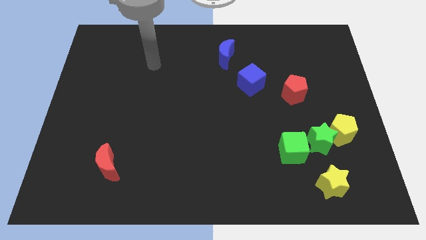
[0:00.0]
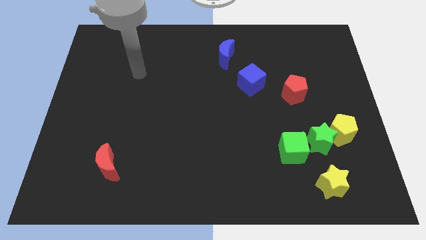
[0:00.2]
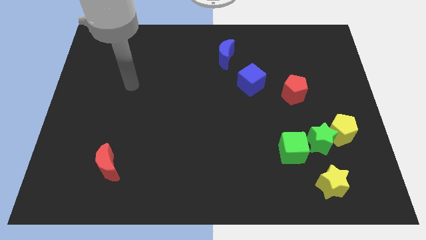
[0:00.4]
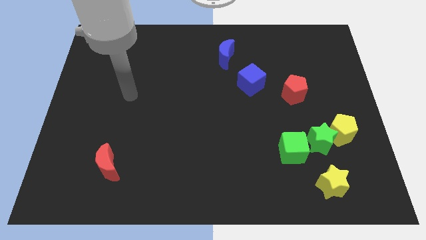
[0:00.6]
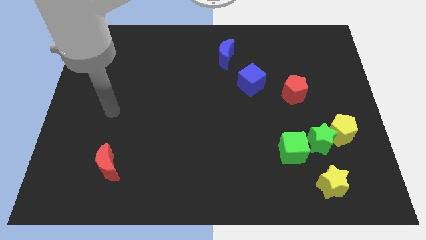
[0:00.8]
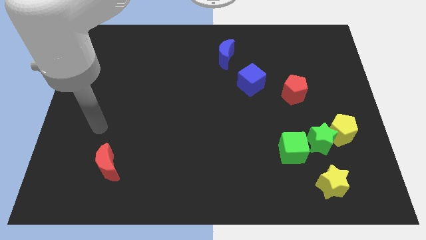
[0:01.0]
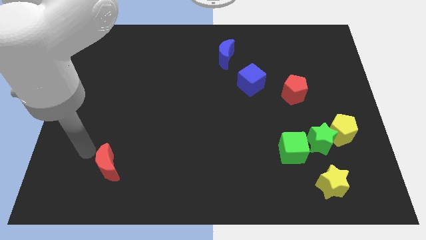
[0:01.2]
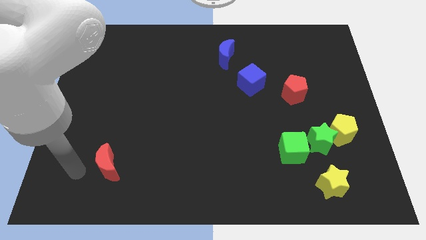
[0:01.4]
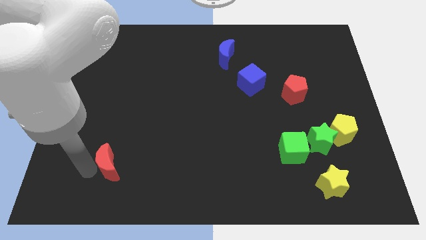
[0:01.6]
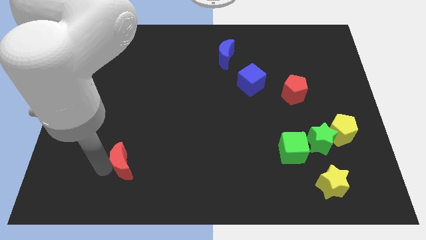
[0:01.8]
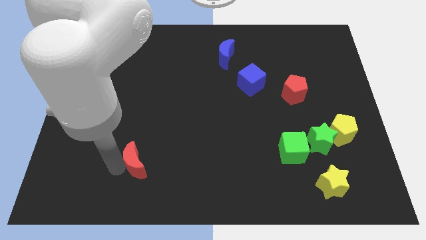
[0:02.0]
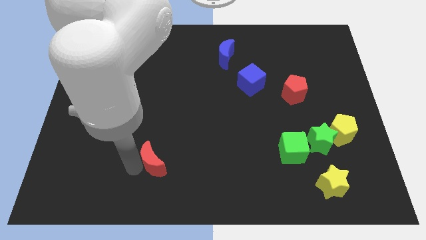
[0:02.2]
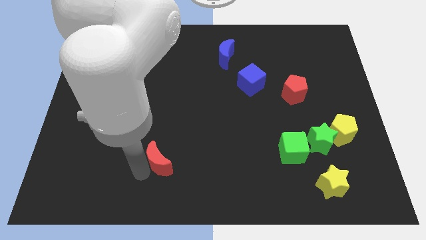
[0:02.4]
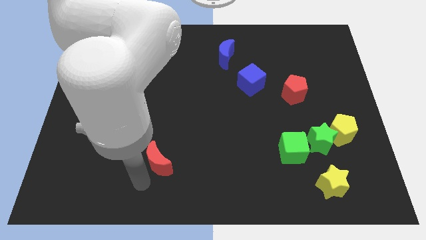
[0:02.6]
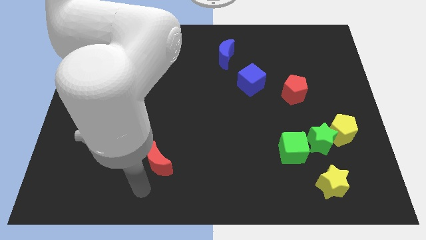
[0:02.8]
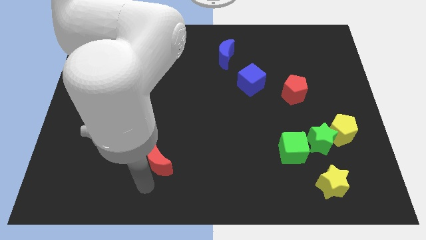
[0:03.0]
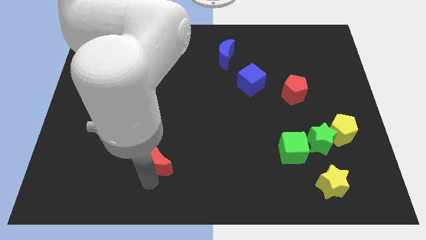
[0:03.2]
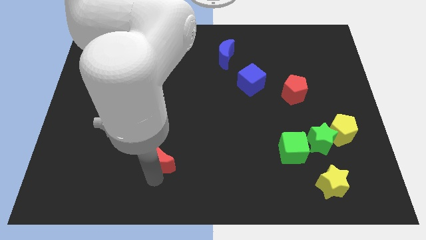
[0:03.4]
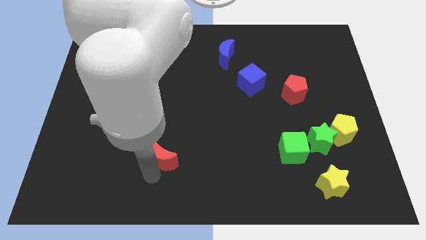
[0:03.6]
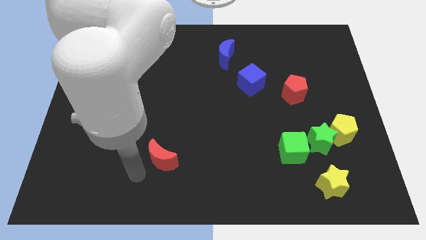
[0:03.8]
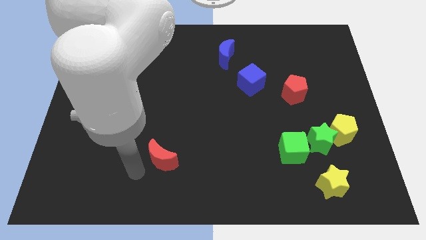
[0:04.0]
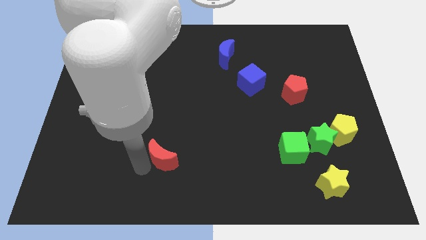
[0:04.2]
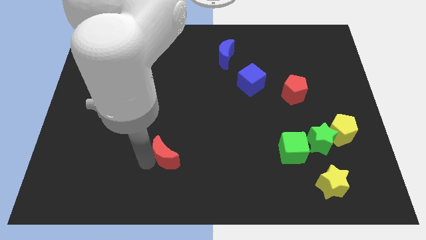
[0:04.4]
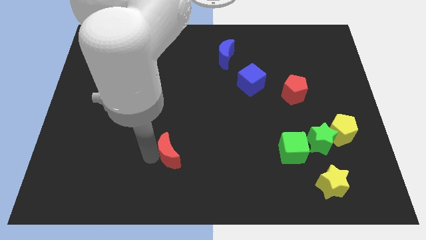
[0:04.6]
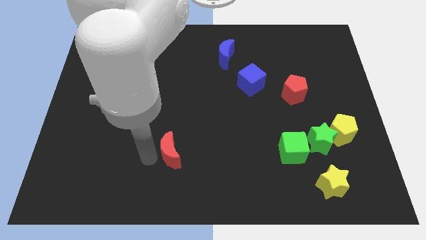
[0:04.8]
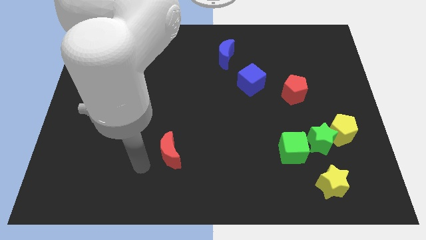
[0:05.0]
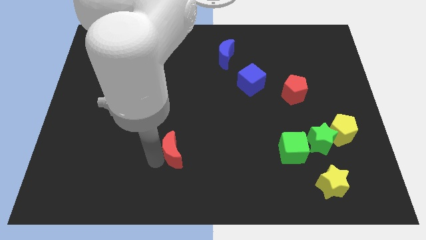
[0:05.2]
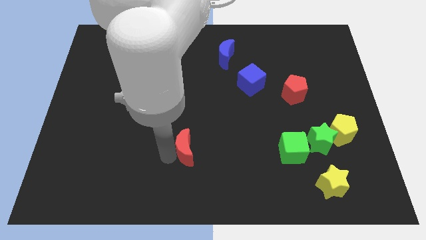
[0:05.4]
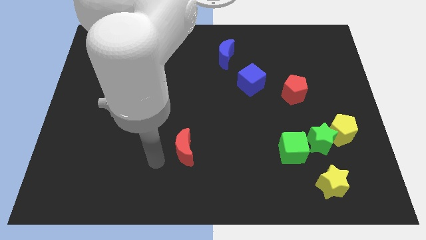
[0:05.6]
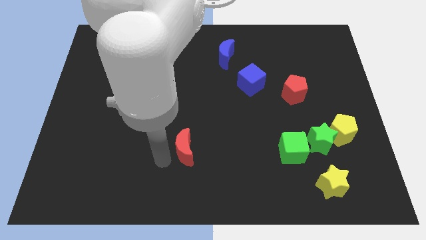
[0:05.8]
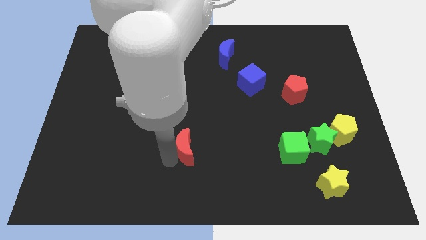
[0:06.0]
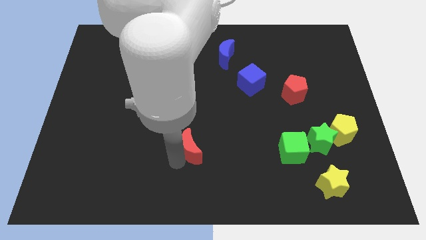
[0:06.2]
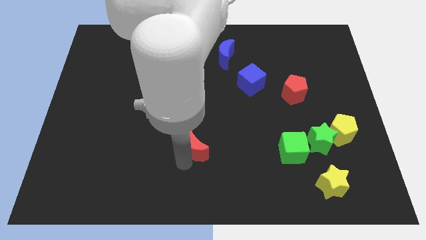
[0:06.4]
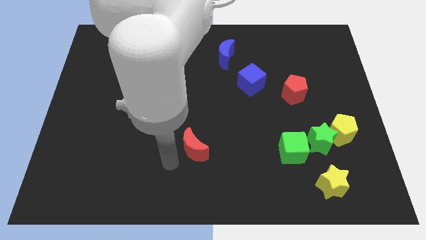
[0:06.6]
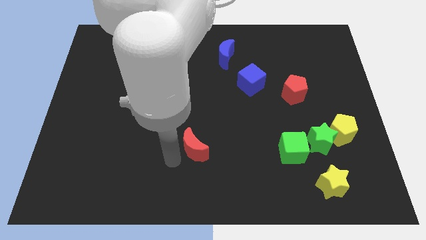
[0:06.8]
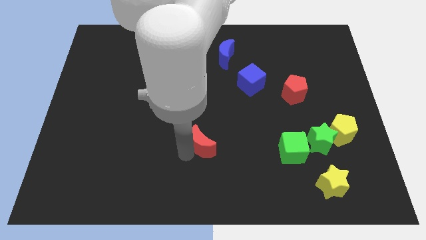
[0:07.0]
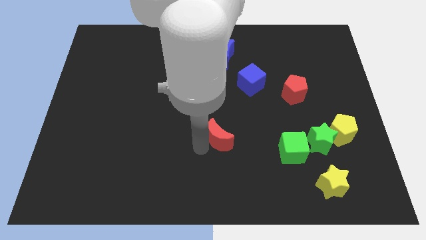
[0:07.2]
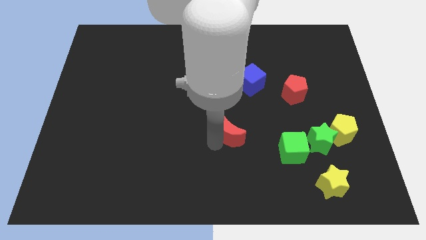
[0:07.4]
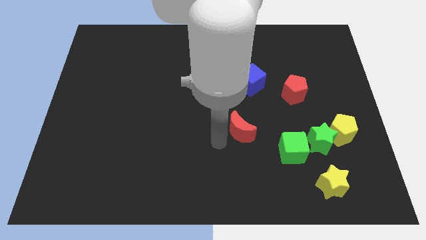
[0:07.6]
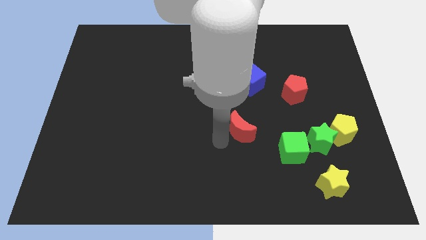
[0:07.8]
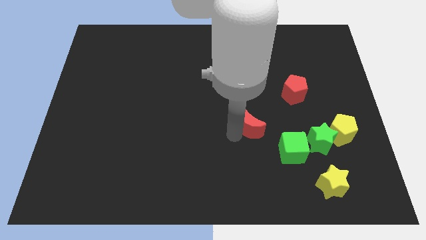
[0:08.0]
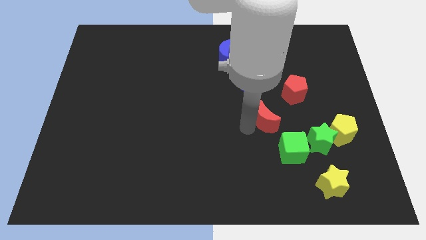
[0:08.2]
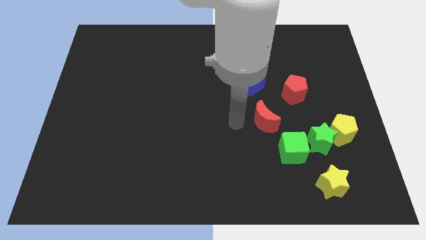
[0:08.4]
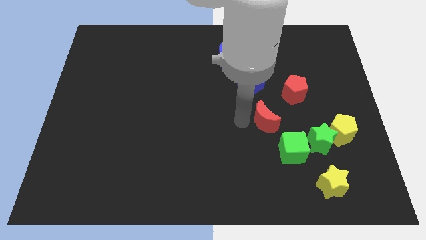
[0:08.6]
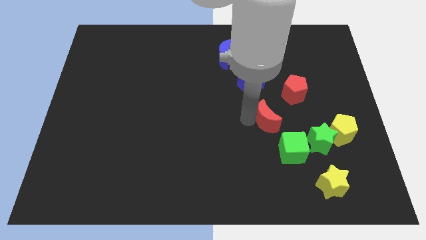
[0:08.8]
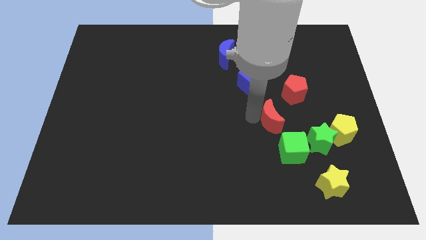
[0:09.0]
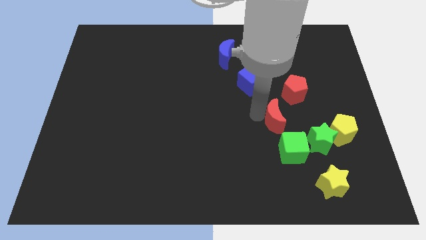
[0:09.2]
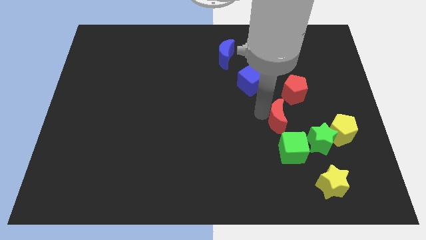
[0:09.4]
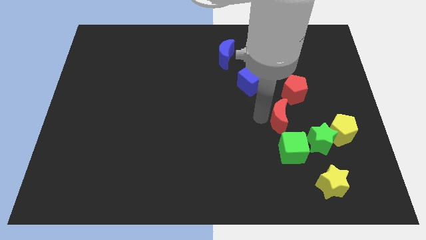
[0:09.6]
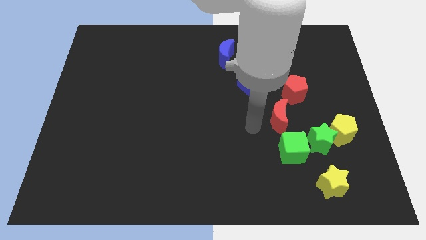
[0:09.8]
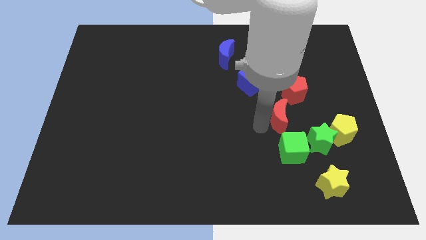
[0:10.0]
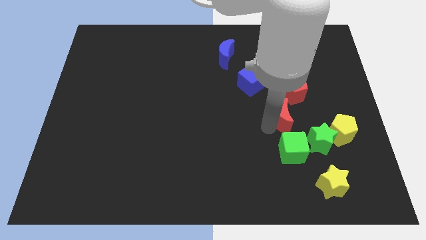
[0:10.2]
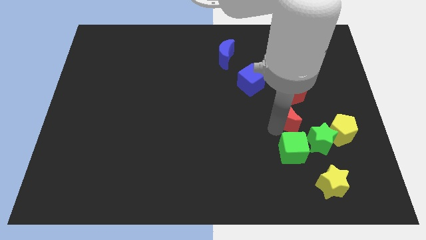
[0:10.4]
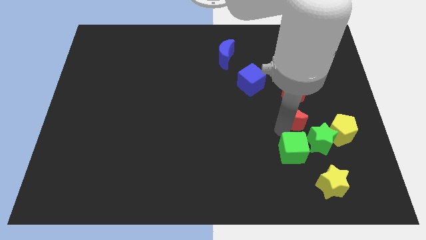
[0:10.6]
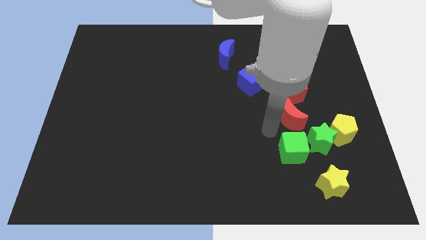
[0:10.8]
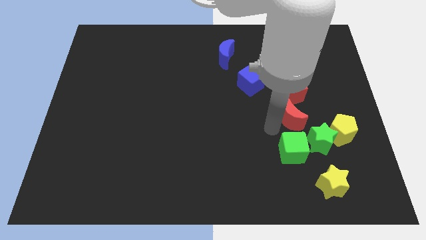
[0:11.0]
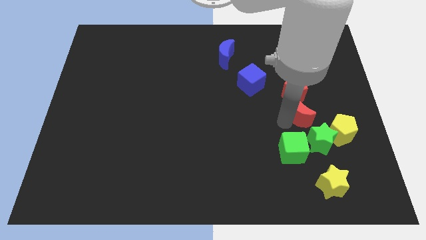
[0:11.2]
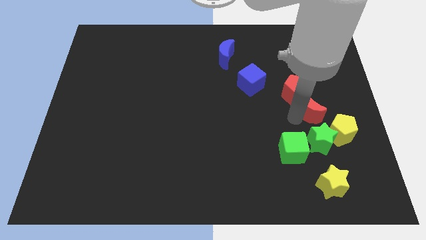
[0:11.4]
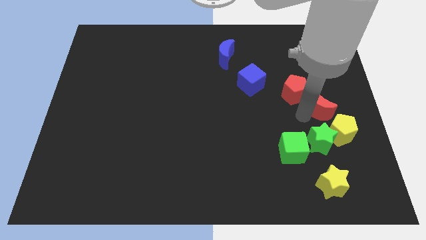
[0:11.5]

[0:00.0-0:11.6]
push the red moon to the top side of the yellow pentagon

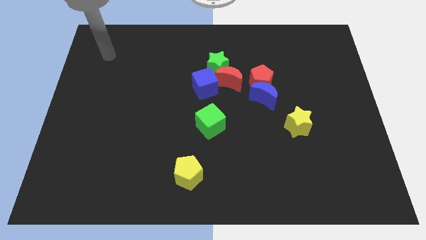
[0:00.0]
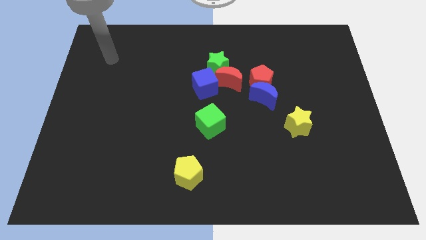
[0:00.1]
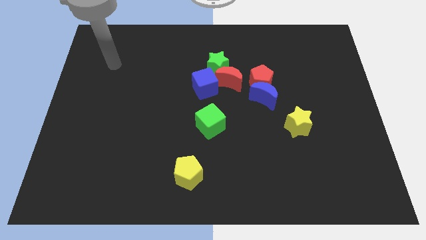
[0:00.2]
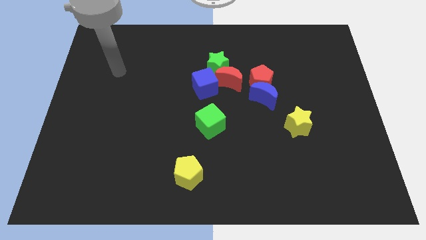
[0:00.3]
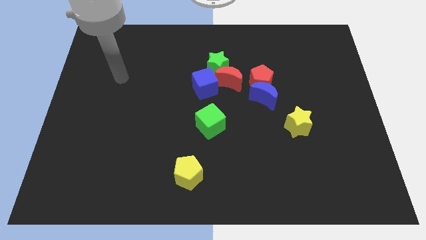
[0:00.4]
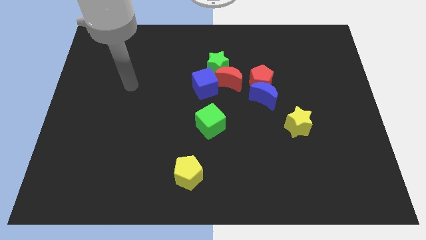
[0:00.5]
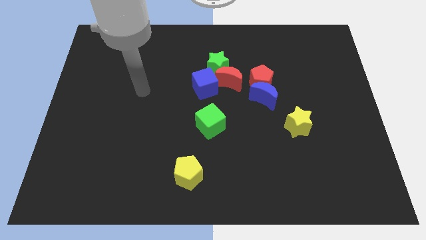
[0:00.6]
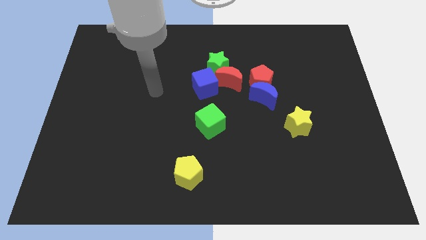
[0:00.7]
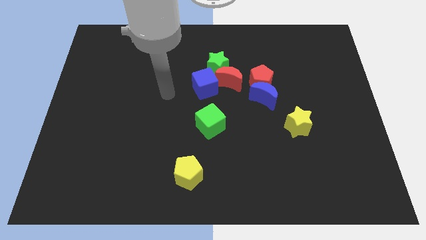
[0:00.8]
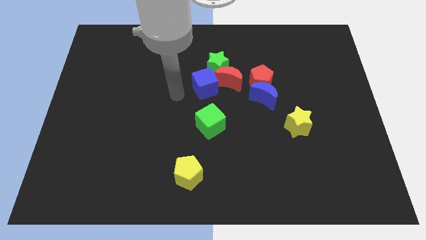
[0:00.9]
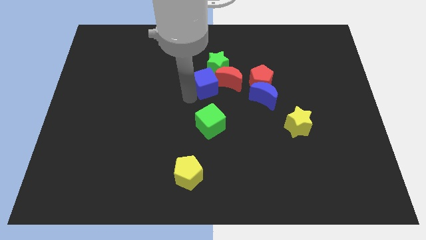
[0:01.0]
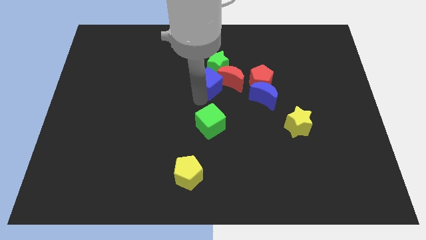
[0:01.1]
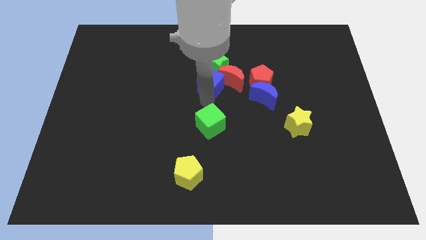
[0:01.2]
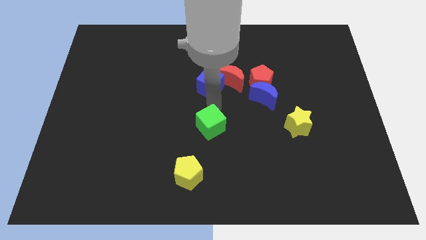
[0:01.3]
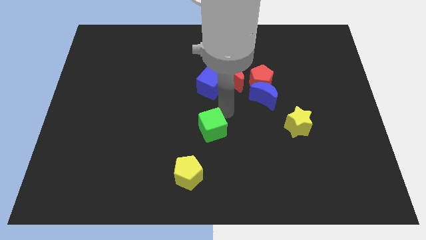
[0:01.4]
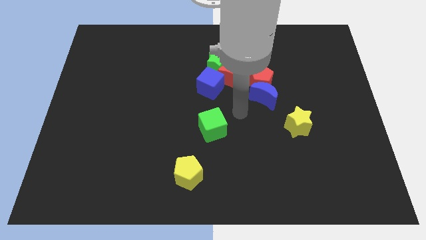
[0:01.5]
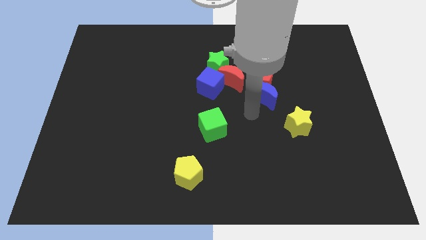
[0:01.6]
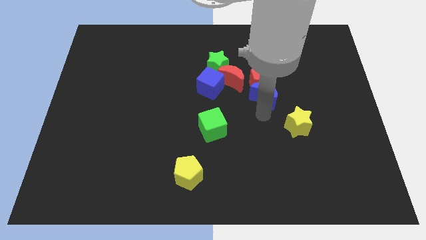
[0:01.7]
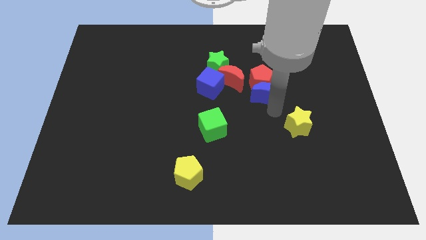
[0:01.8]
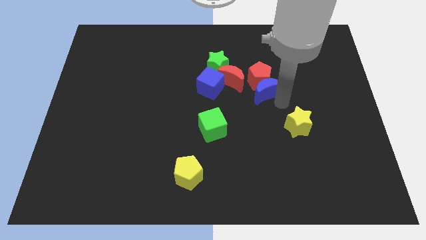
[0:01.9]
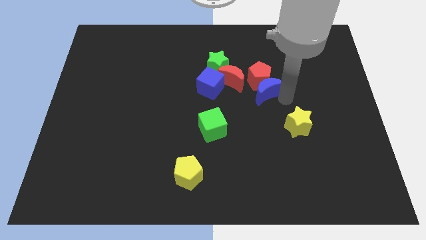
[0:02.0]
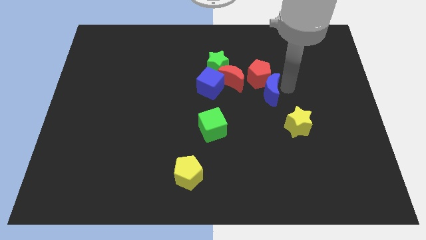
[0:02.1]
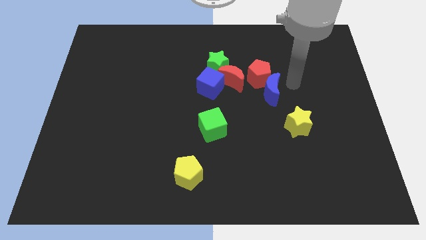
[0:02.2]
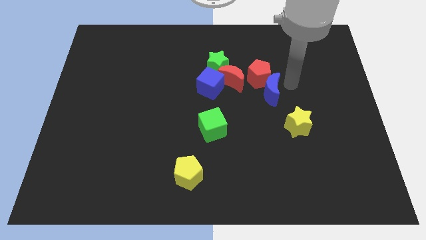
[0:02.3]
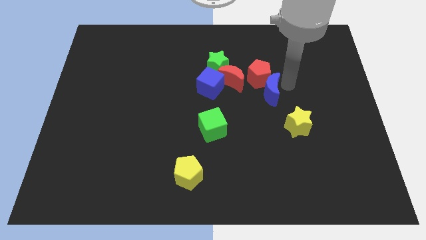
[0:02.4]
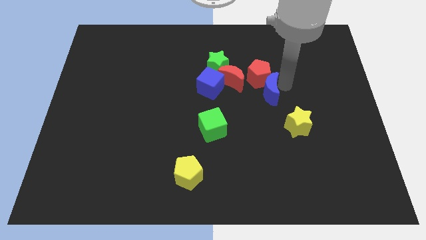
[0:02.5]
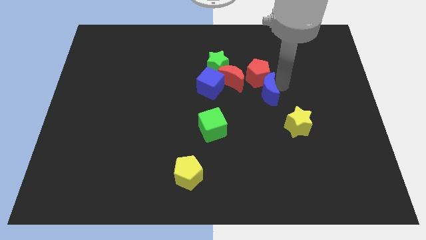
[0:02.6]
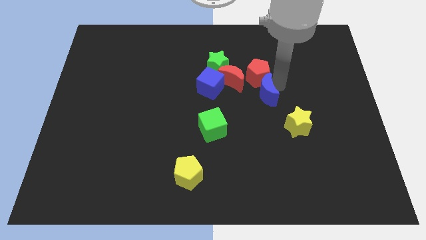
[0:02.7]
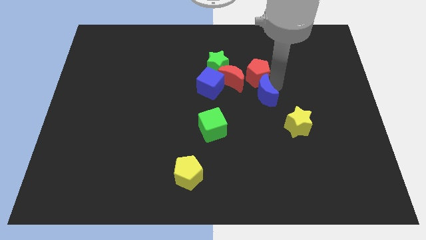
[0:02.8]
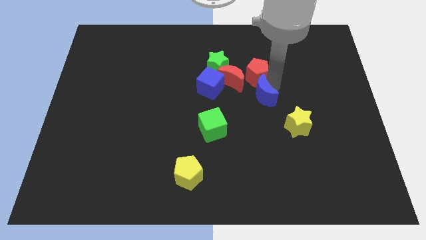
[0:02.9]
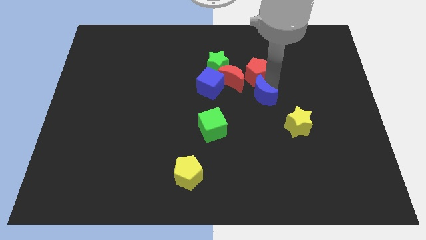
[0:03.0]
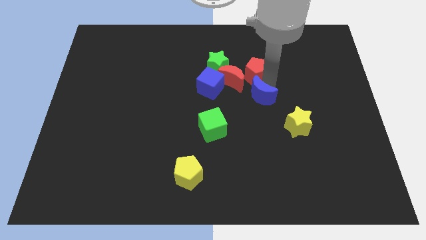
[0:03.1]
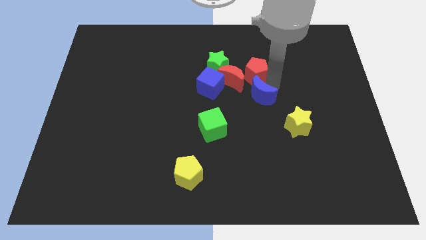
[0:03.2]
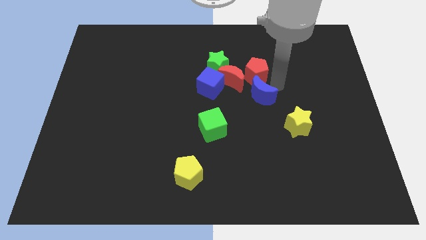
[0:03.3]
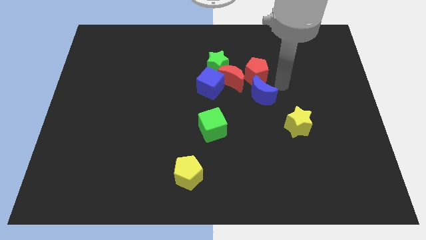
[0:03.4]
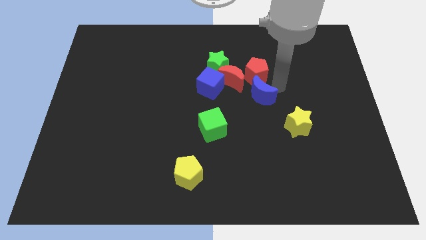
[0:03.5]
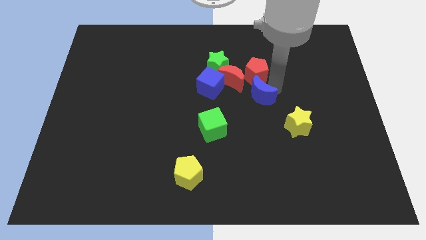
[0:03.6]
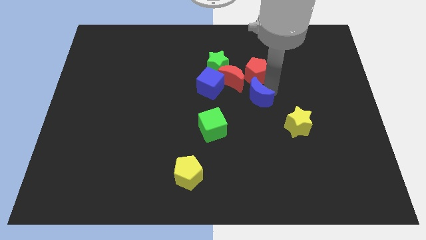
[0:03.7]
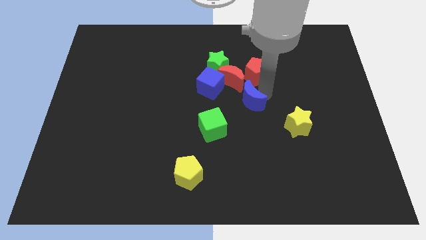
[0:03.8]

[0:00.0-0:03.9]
push the blue moon to the top right side of the green cube
